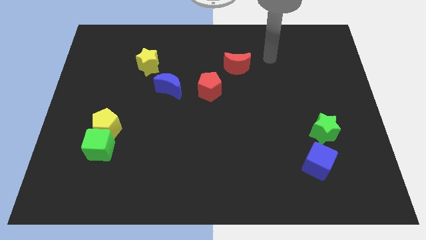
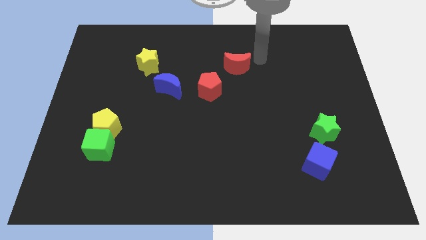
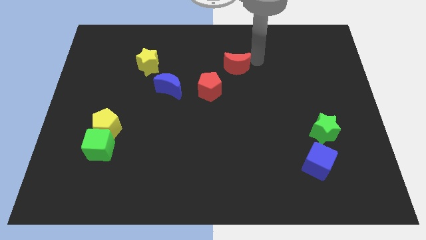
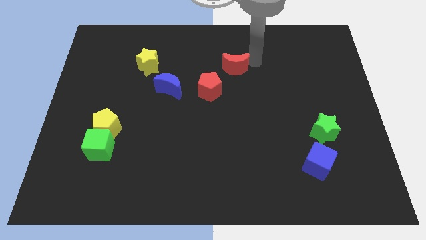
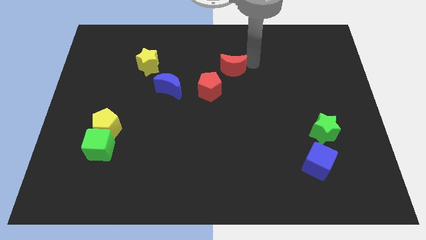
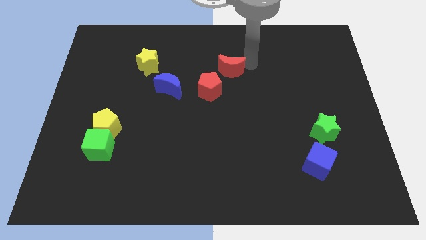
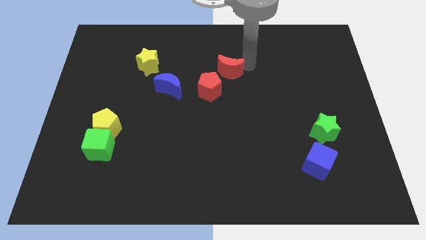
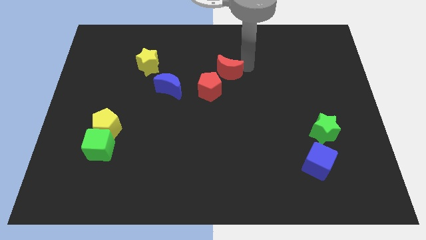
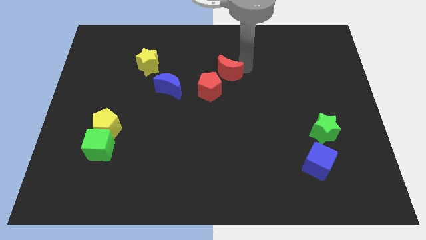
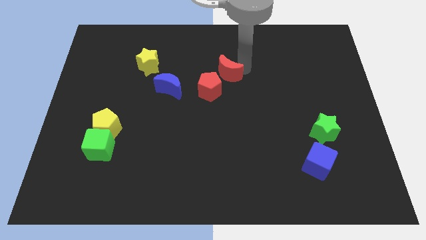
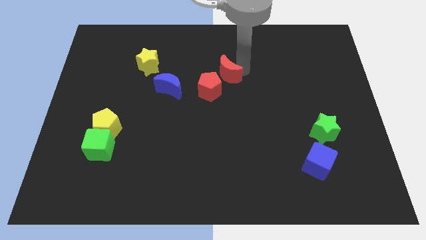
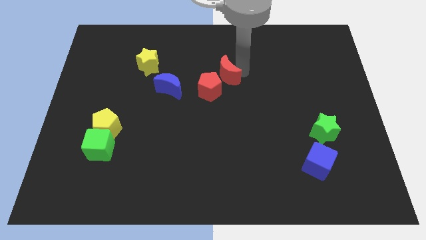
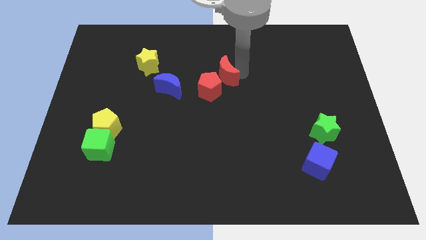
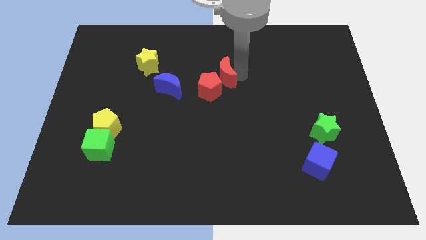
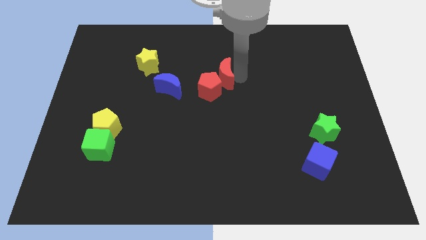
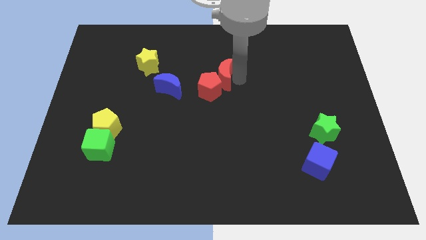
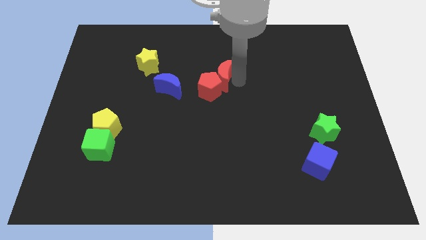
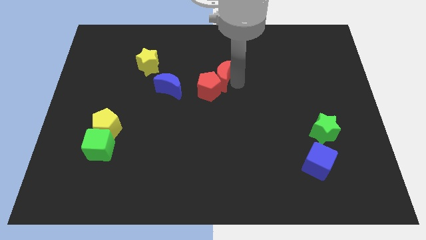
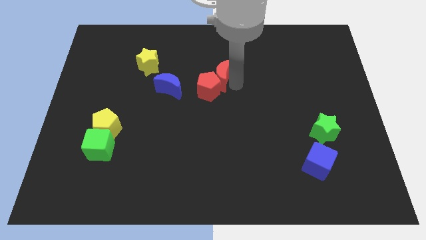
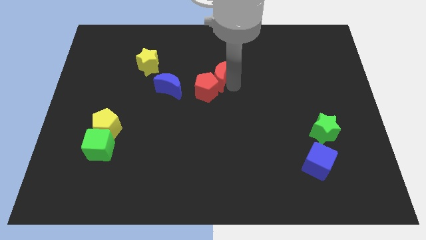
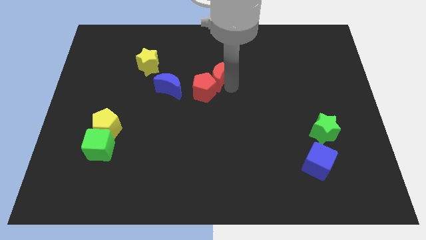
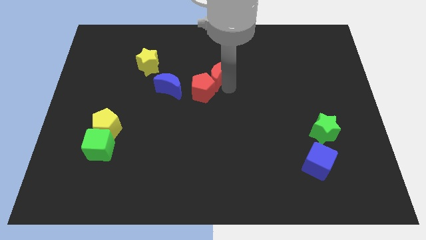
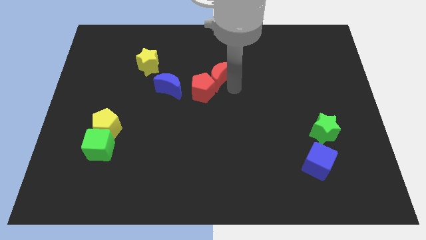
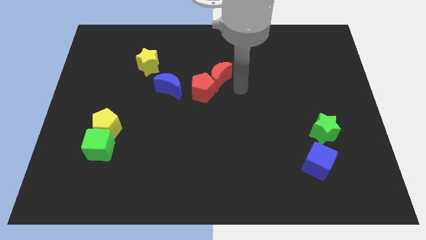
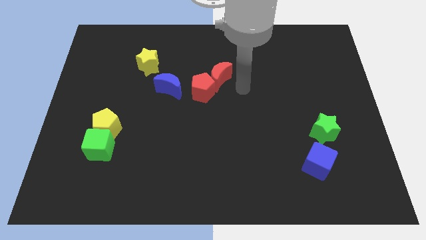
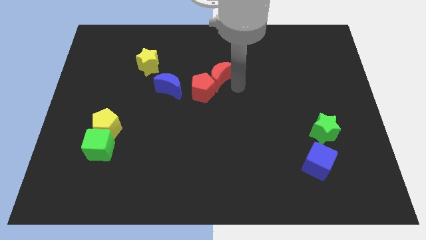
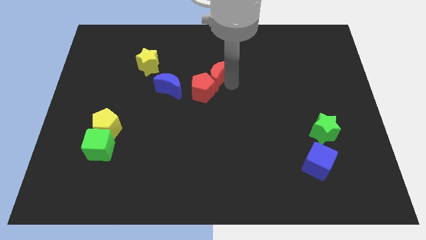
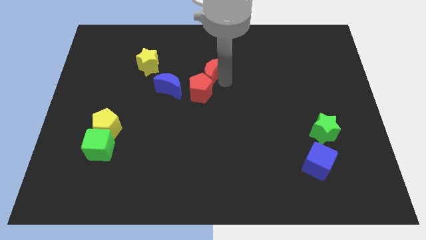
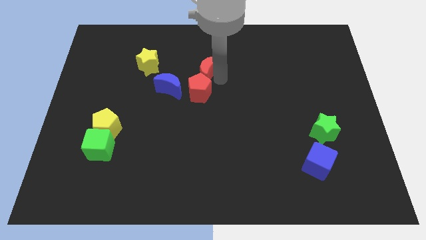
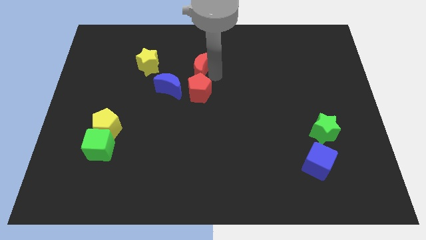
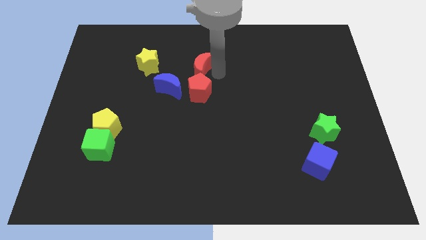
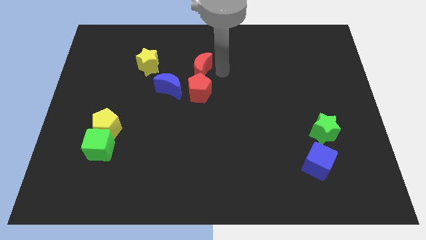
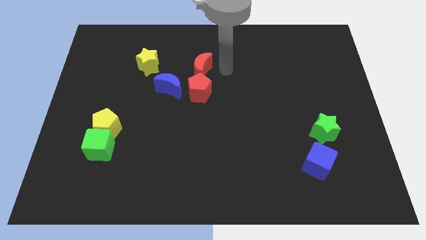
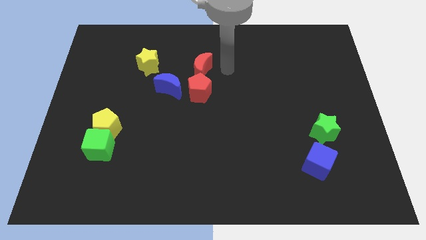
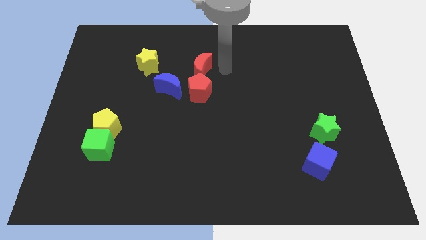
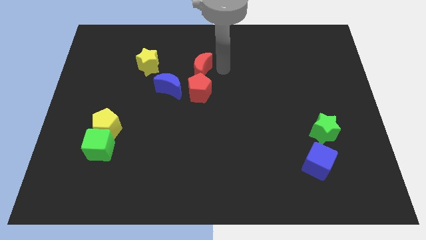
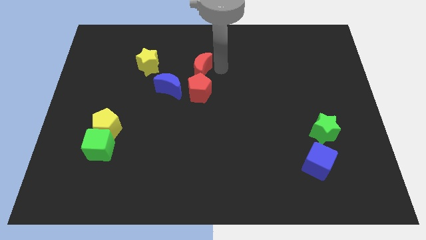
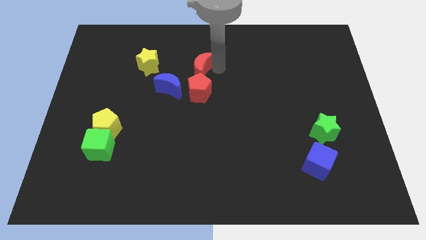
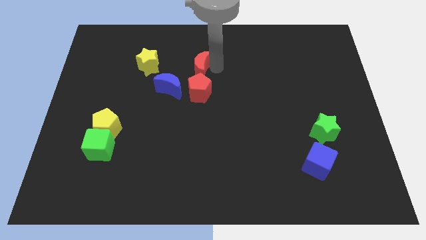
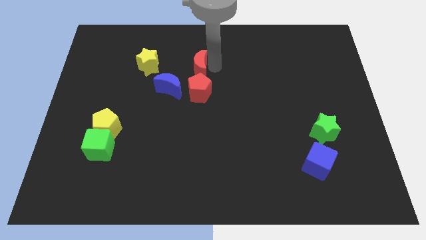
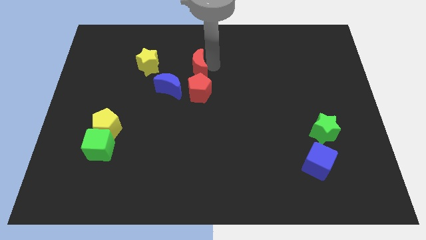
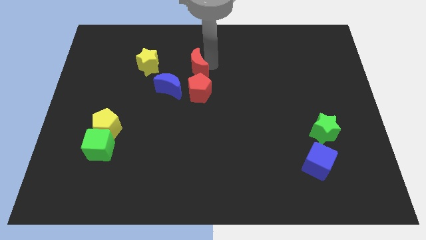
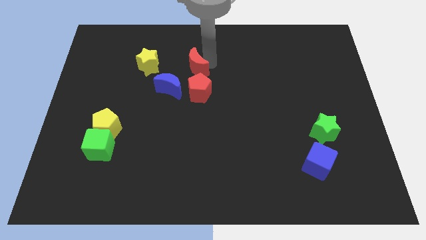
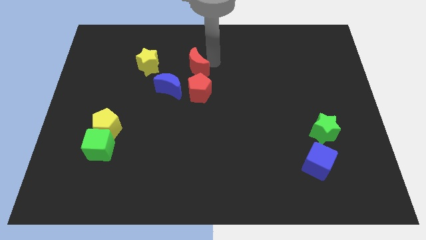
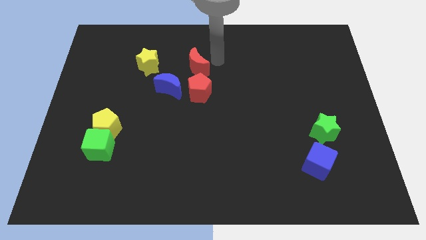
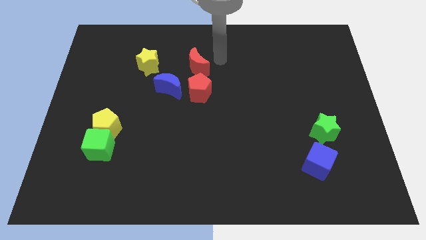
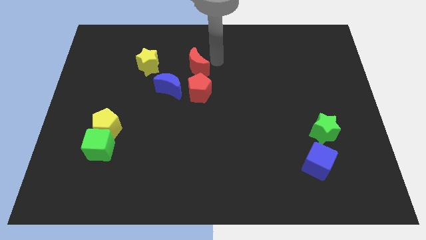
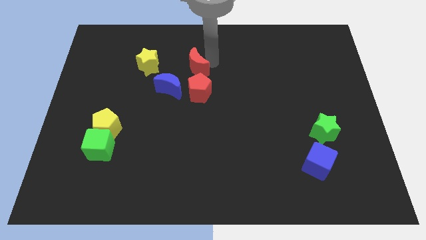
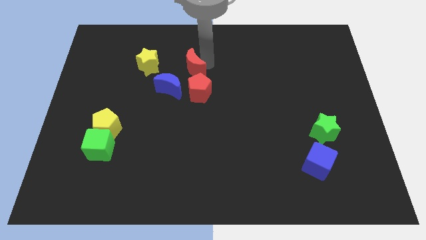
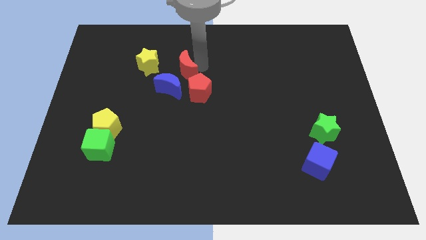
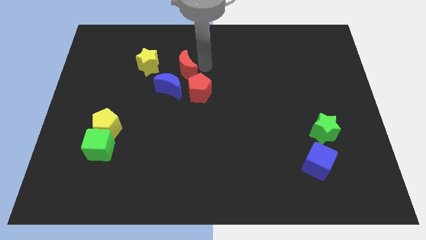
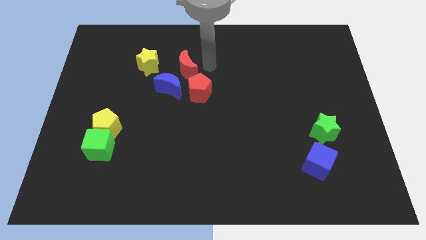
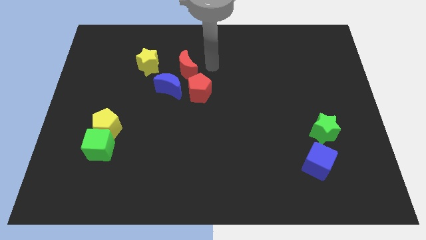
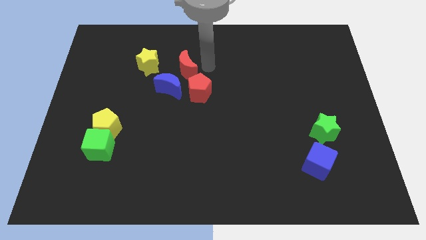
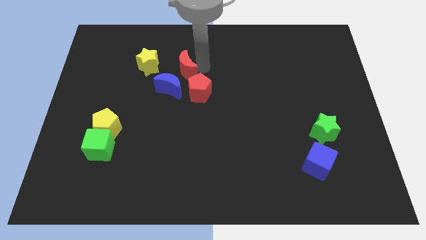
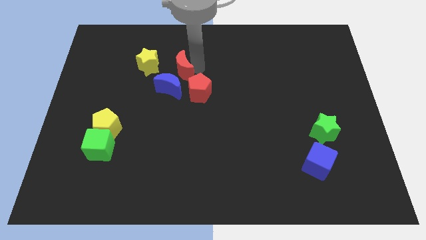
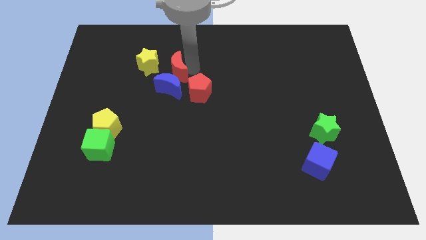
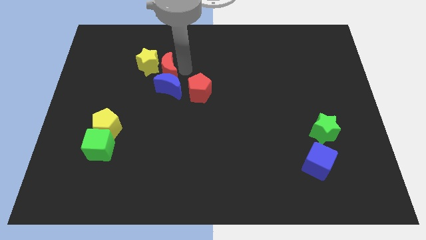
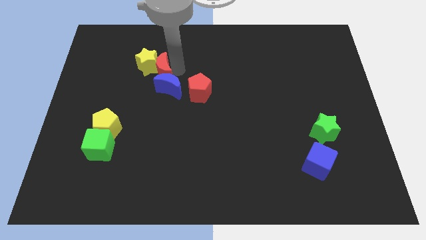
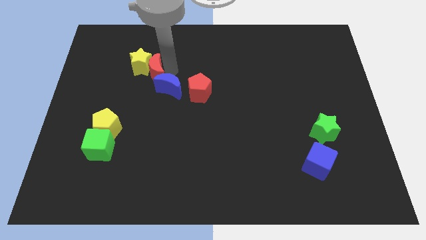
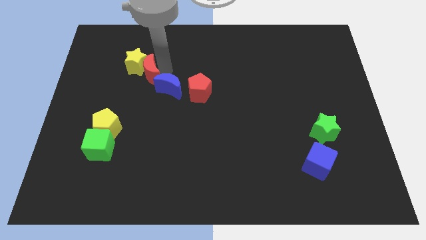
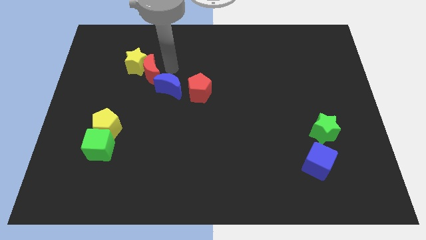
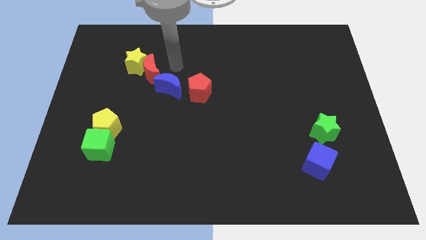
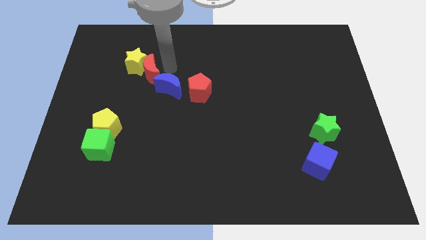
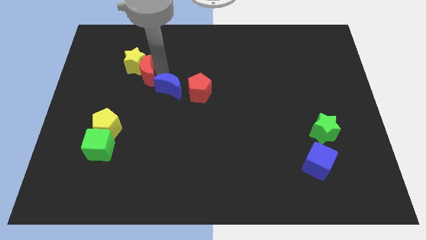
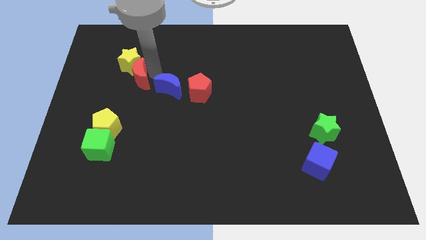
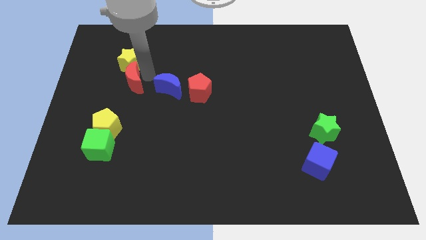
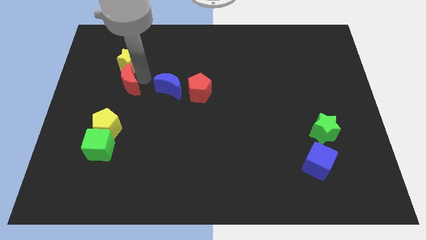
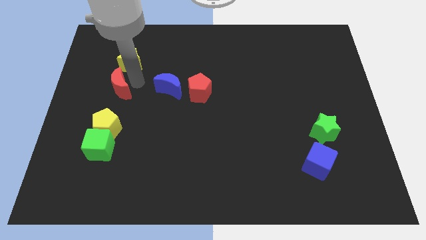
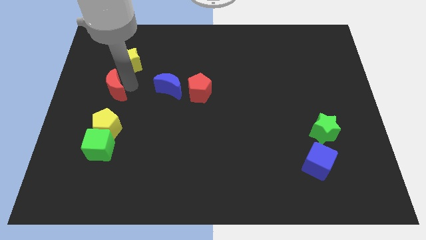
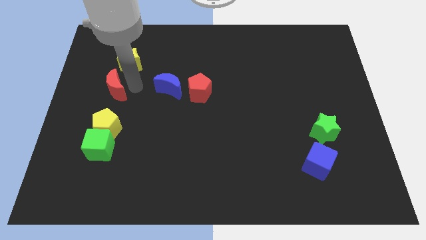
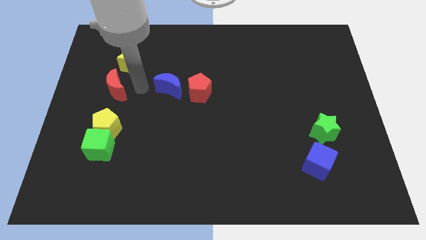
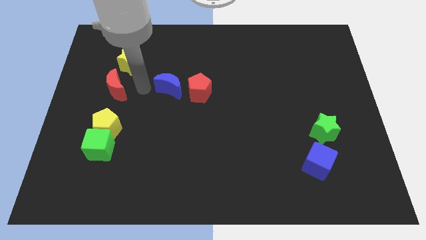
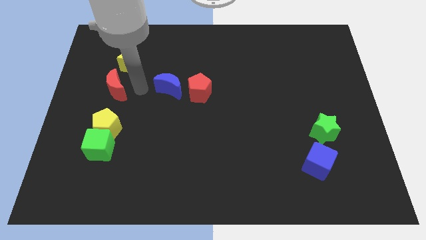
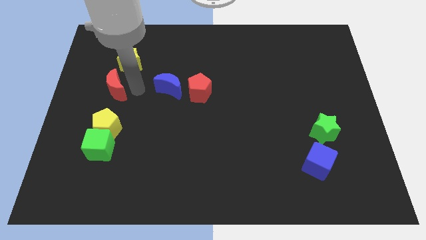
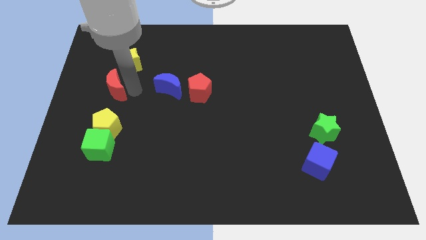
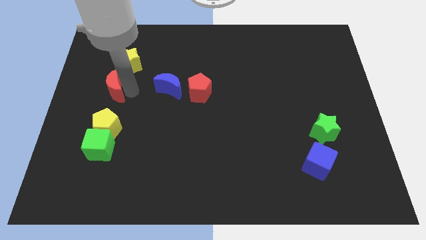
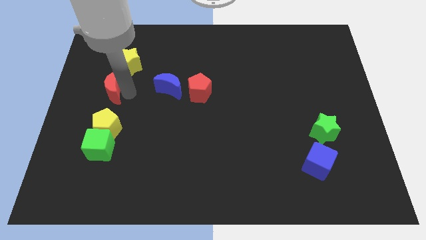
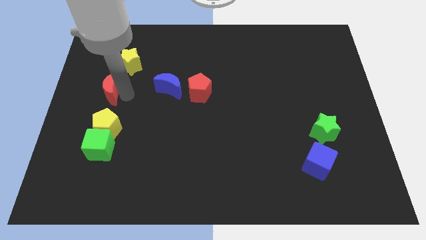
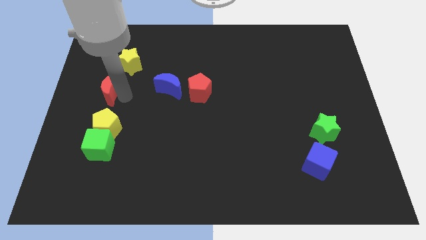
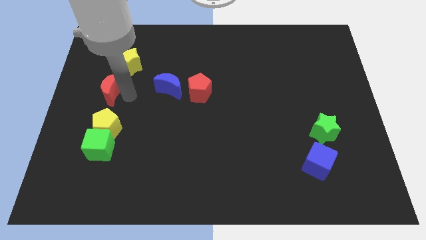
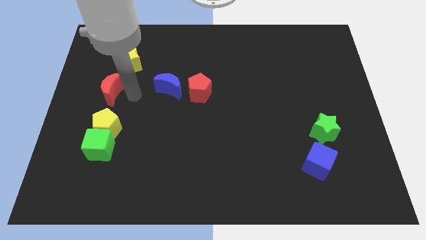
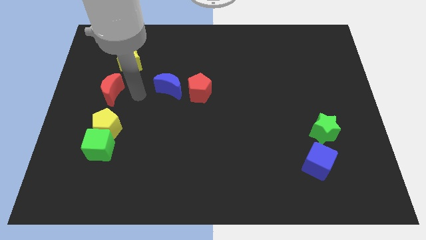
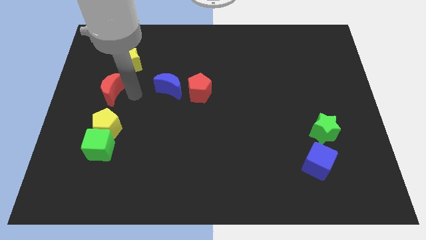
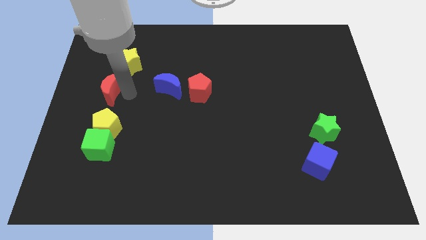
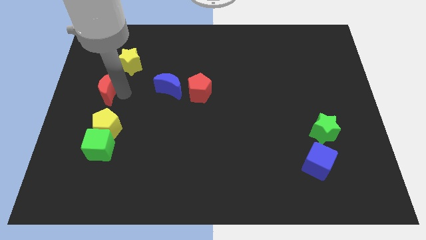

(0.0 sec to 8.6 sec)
slide the red moon to the center left
